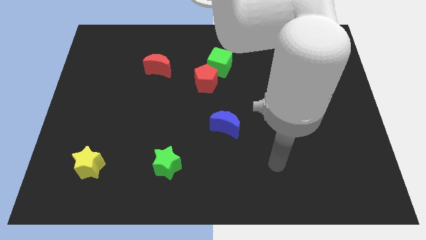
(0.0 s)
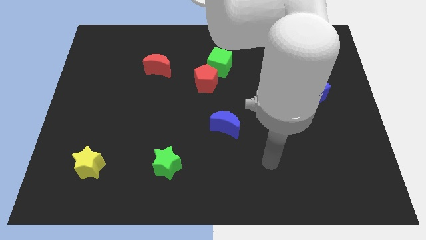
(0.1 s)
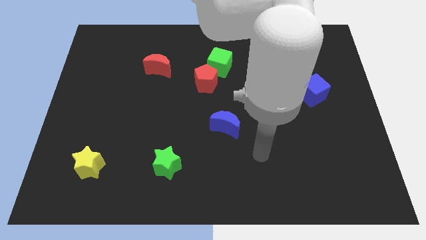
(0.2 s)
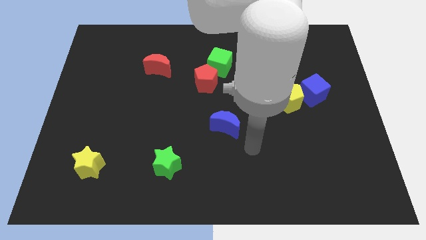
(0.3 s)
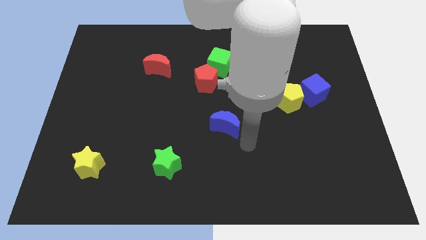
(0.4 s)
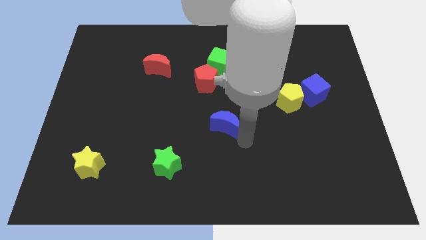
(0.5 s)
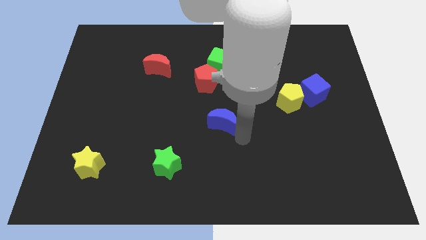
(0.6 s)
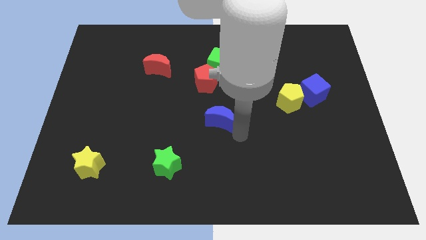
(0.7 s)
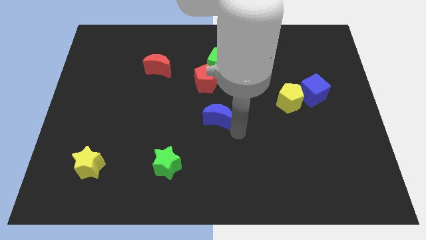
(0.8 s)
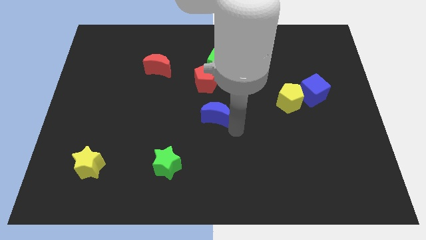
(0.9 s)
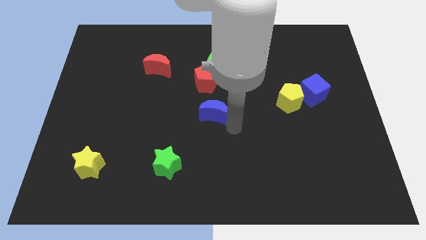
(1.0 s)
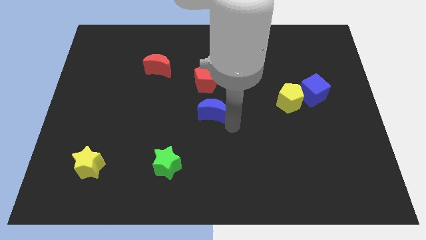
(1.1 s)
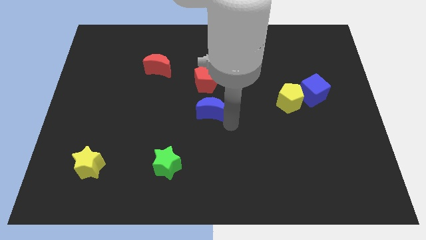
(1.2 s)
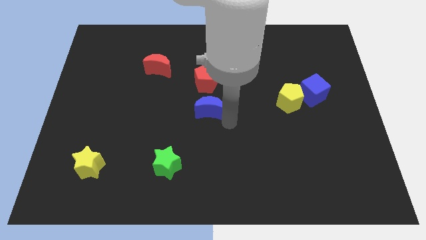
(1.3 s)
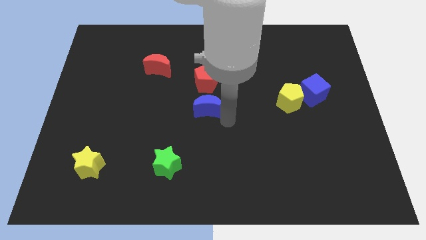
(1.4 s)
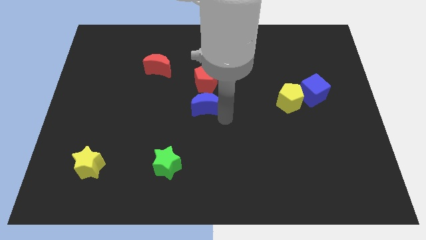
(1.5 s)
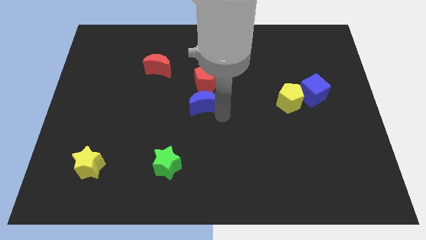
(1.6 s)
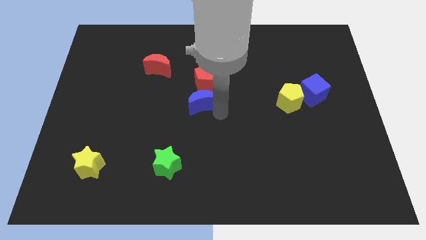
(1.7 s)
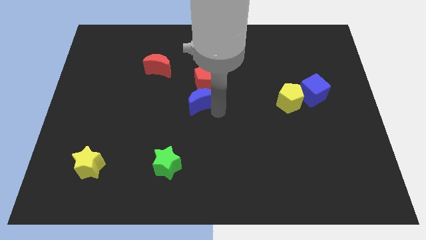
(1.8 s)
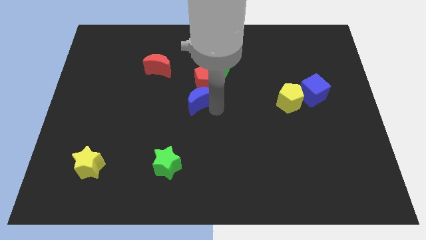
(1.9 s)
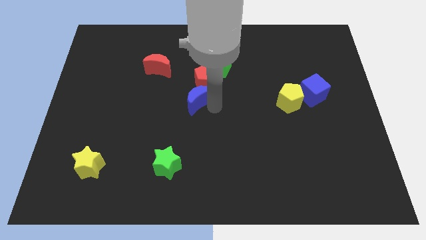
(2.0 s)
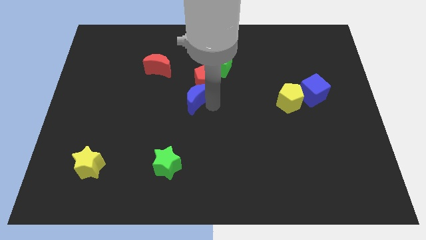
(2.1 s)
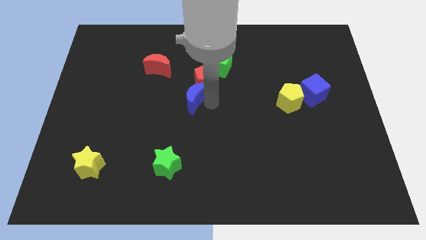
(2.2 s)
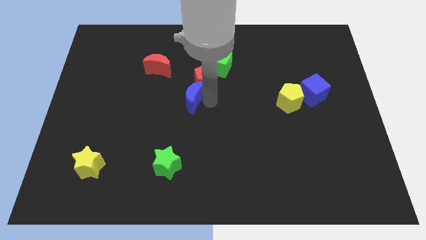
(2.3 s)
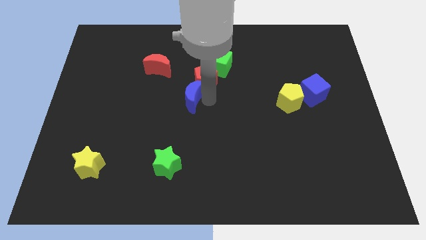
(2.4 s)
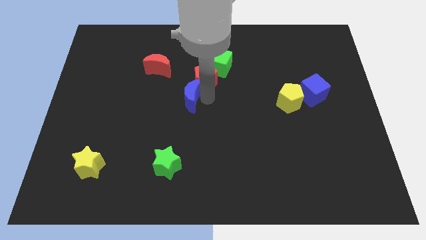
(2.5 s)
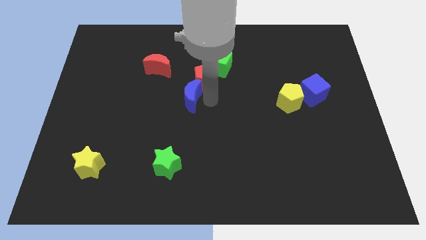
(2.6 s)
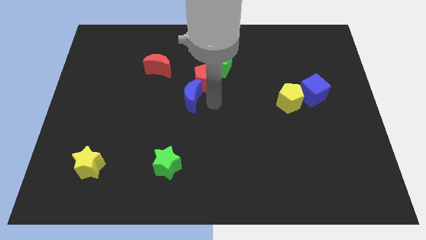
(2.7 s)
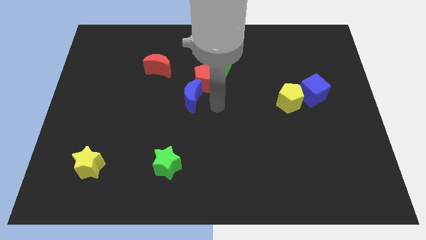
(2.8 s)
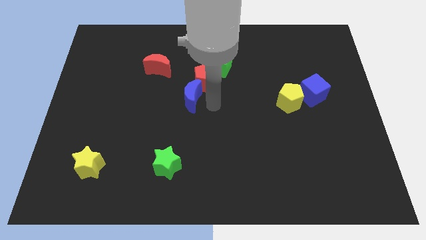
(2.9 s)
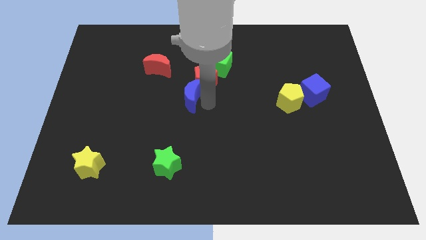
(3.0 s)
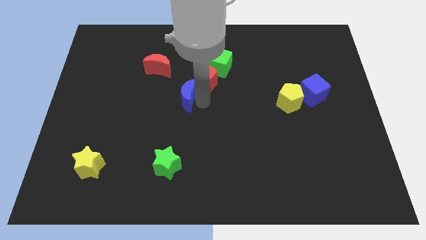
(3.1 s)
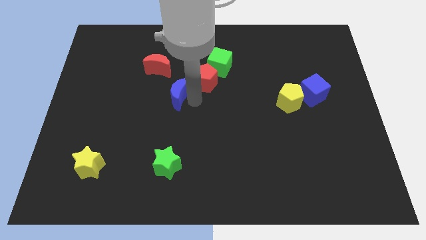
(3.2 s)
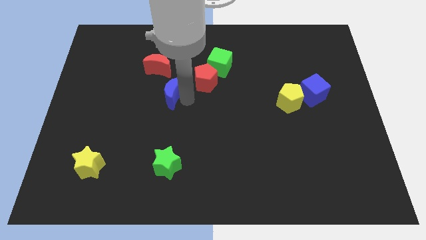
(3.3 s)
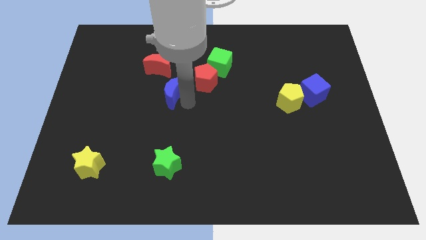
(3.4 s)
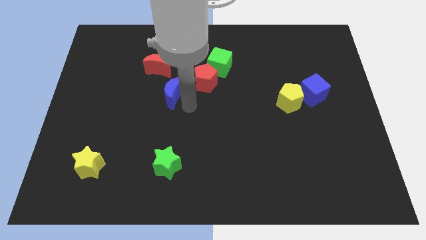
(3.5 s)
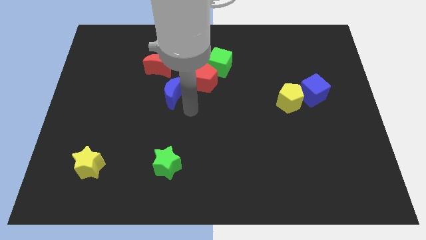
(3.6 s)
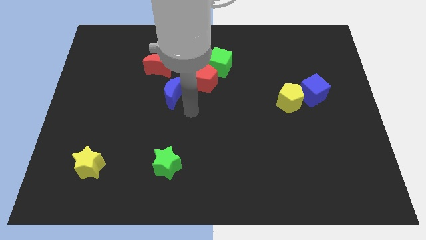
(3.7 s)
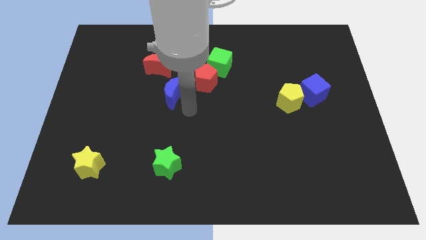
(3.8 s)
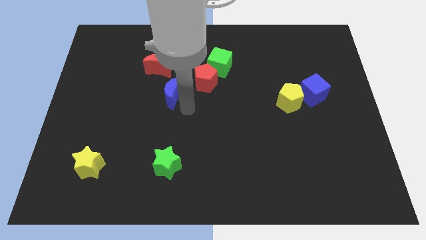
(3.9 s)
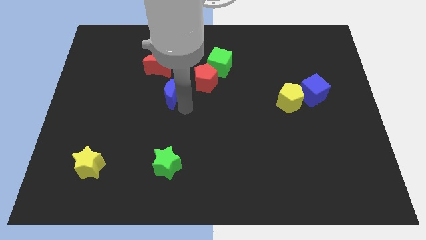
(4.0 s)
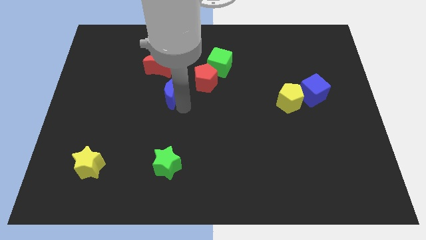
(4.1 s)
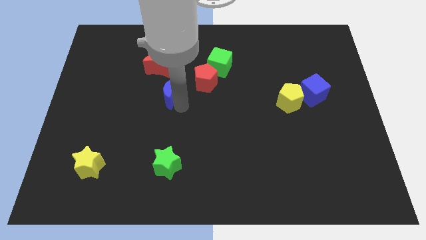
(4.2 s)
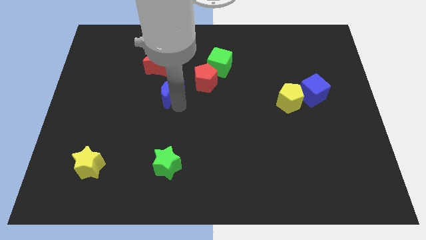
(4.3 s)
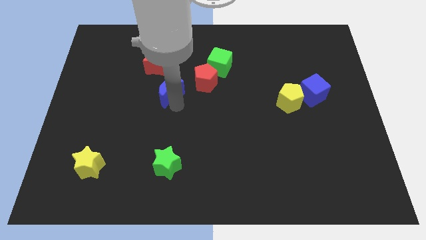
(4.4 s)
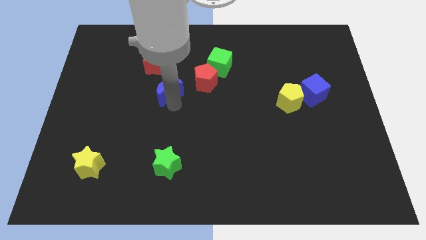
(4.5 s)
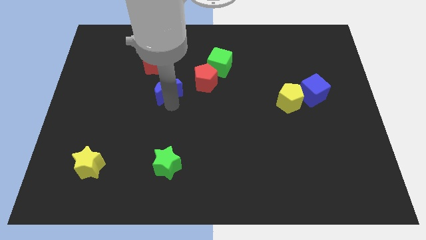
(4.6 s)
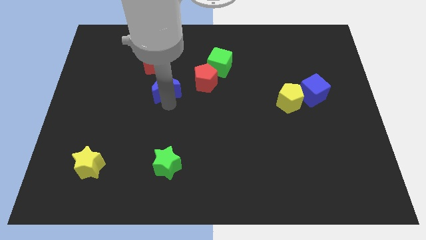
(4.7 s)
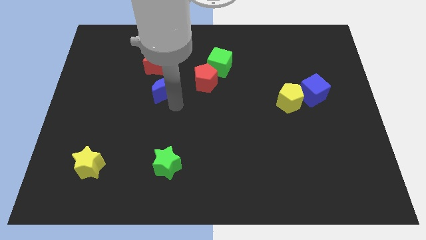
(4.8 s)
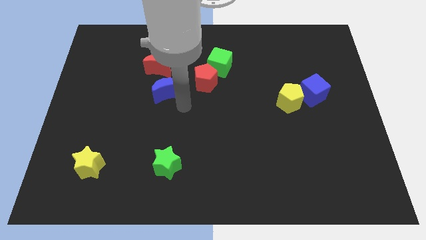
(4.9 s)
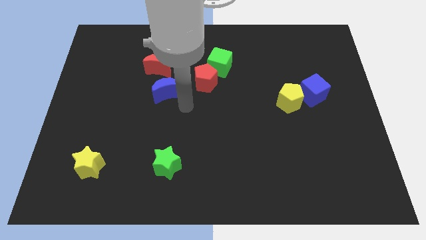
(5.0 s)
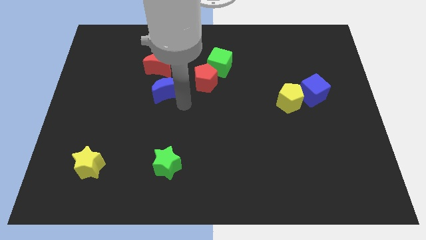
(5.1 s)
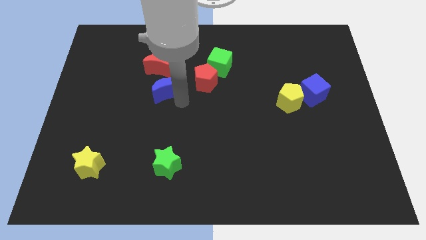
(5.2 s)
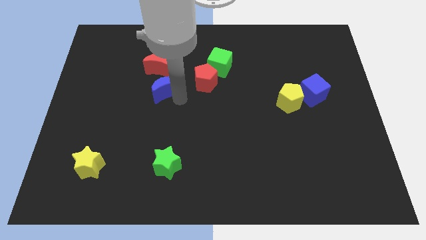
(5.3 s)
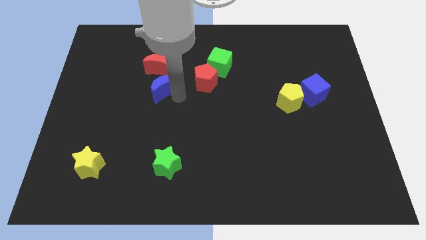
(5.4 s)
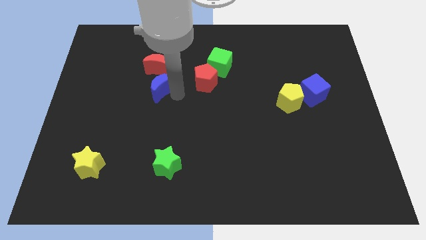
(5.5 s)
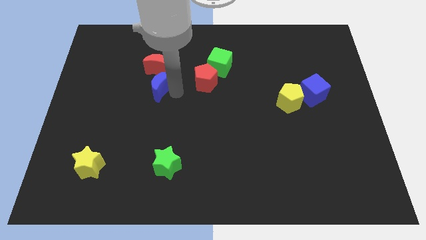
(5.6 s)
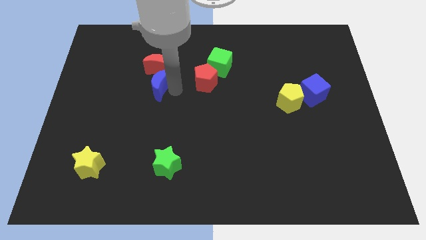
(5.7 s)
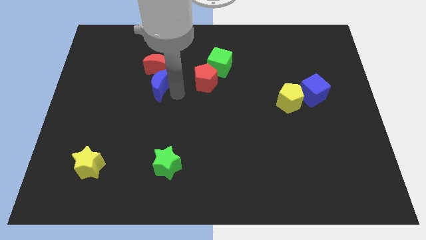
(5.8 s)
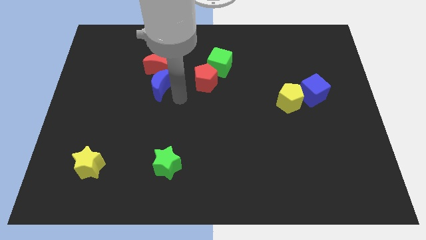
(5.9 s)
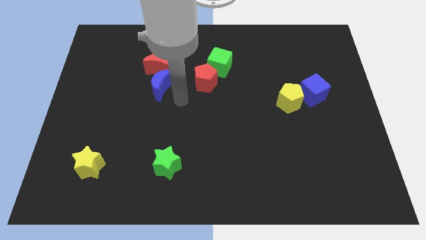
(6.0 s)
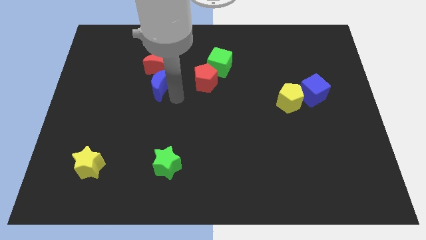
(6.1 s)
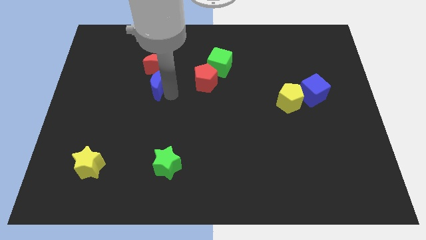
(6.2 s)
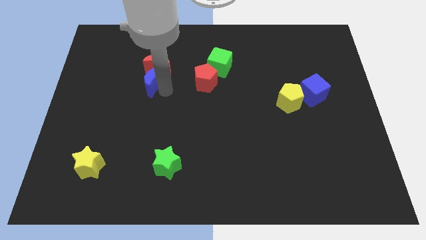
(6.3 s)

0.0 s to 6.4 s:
move the blue moon up and to the left diagonally

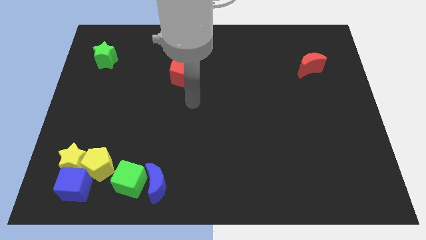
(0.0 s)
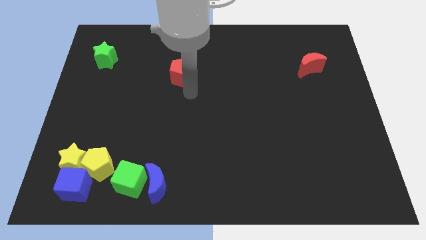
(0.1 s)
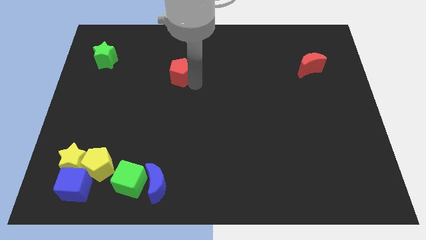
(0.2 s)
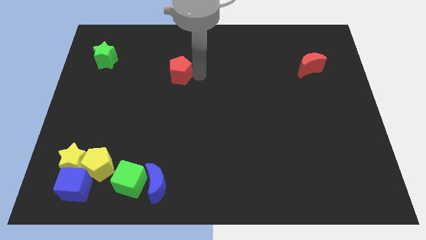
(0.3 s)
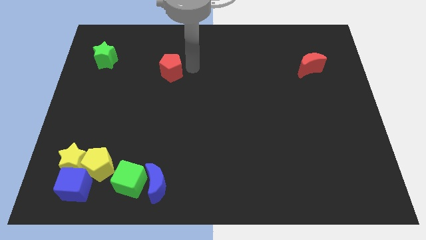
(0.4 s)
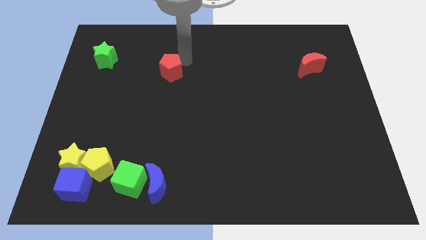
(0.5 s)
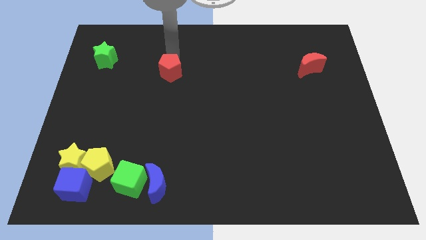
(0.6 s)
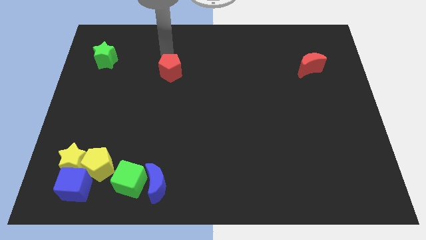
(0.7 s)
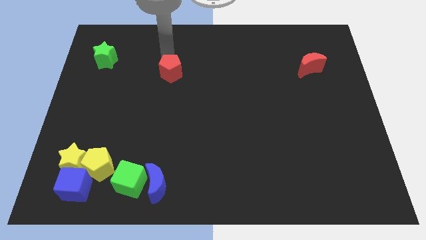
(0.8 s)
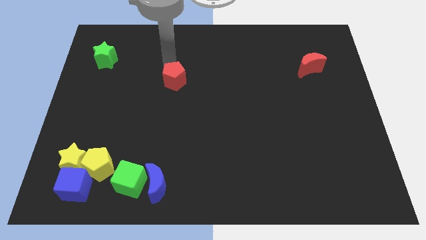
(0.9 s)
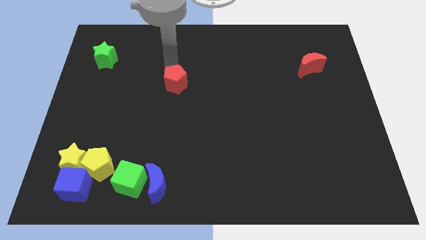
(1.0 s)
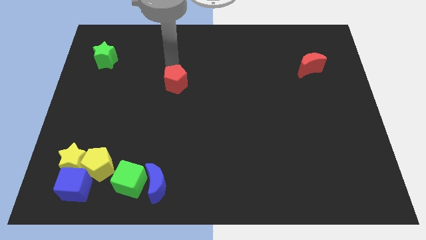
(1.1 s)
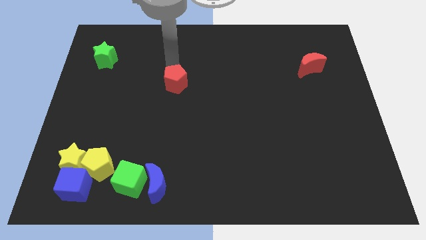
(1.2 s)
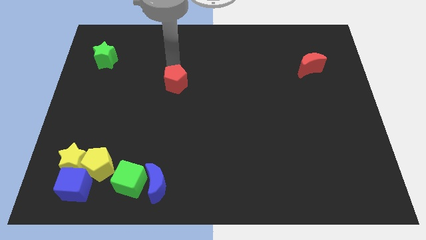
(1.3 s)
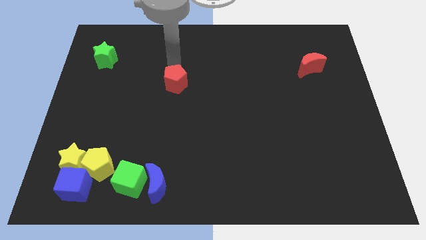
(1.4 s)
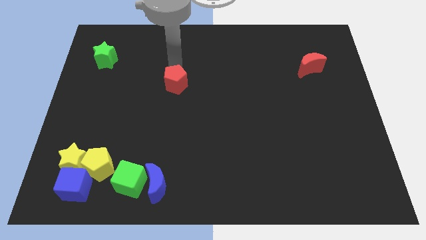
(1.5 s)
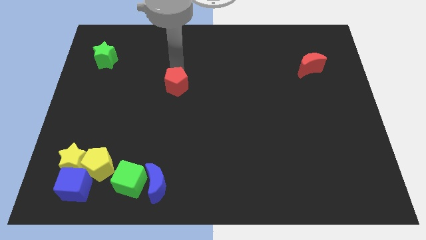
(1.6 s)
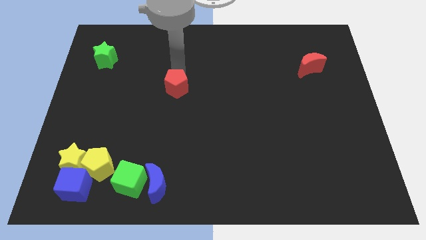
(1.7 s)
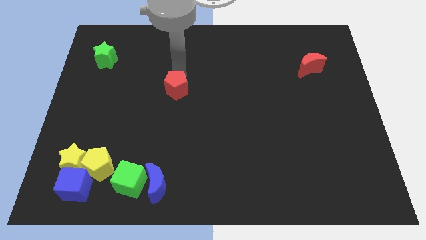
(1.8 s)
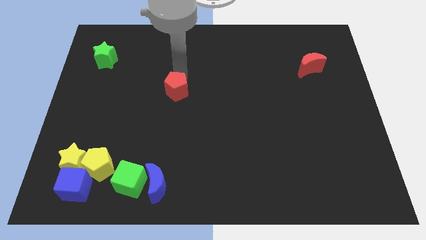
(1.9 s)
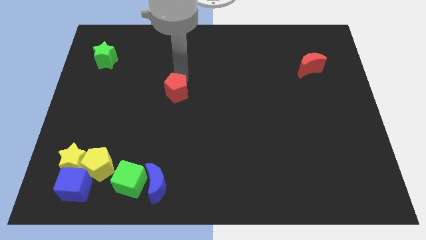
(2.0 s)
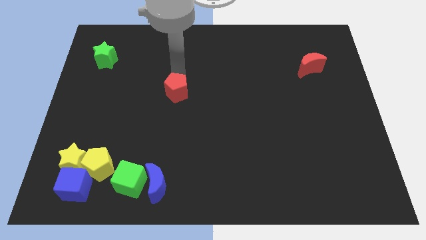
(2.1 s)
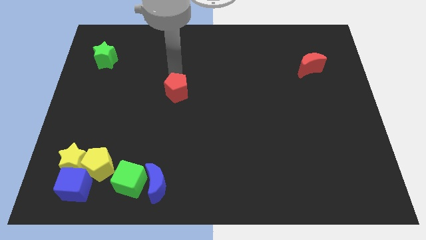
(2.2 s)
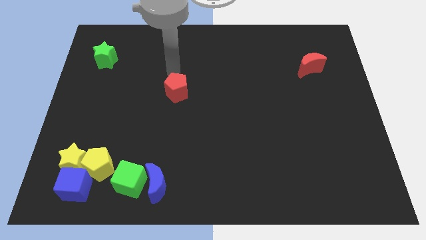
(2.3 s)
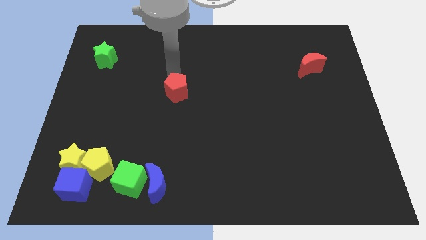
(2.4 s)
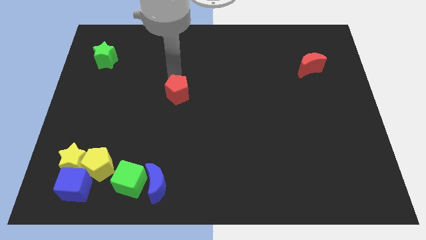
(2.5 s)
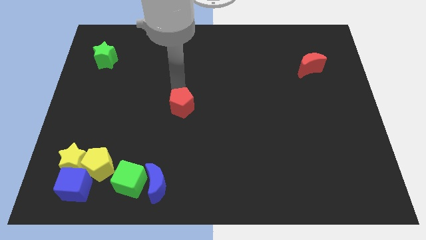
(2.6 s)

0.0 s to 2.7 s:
move the red pentagon down slightly
